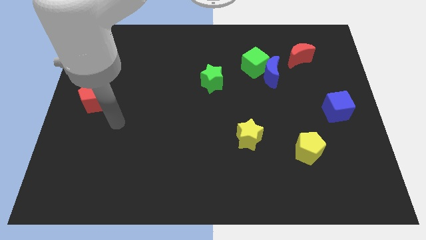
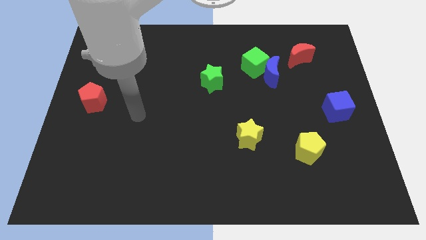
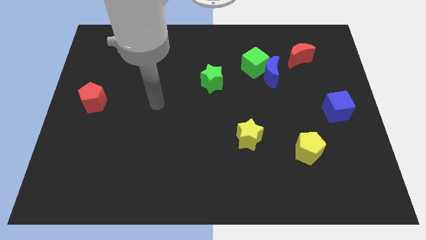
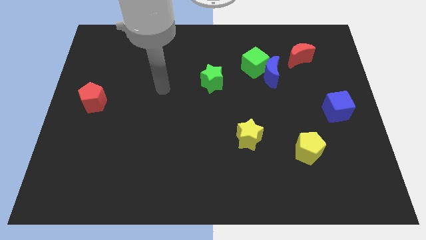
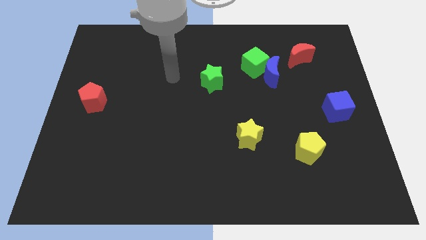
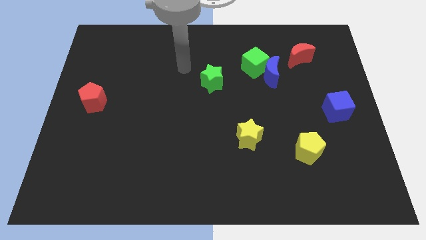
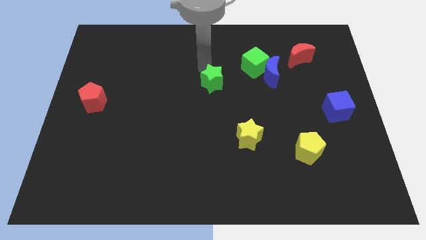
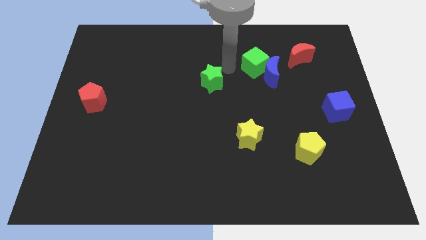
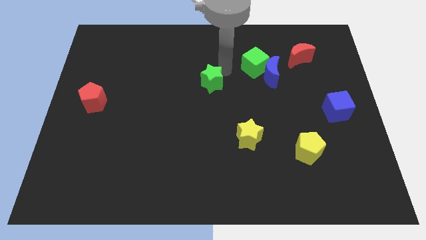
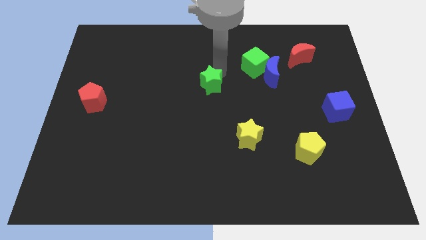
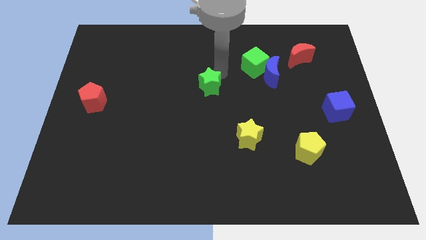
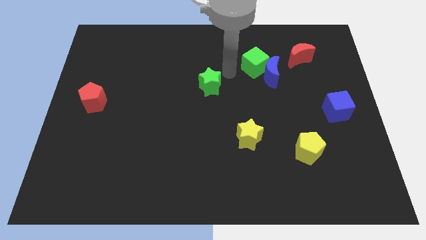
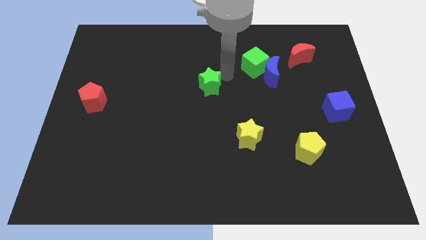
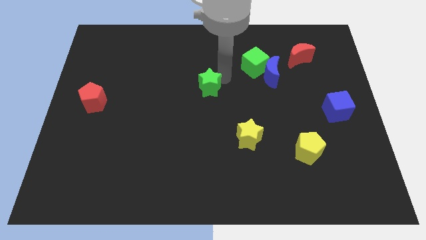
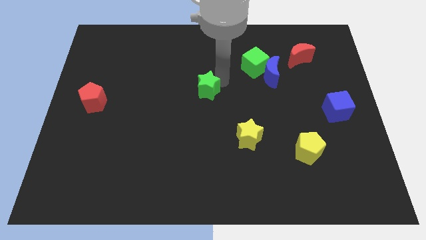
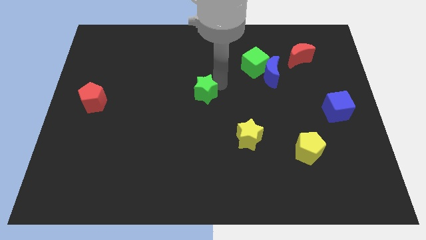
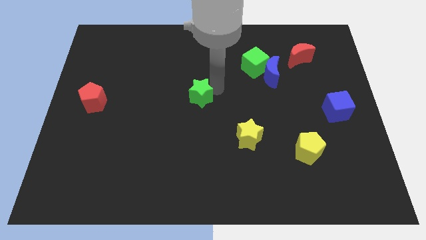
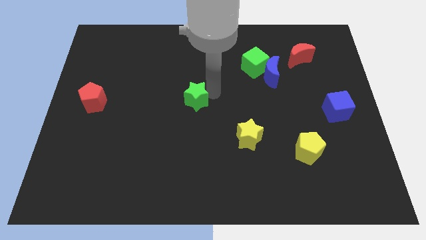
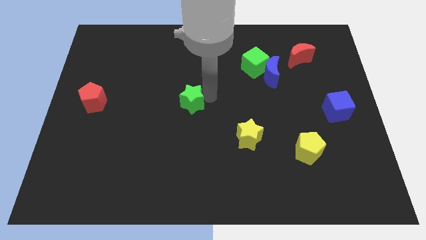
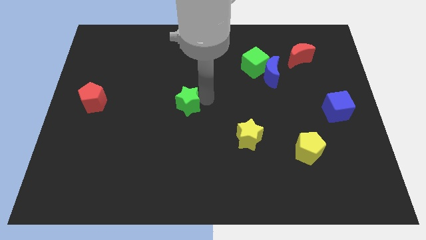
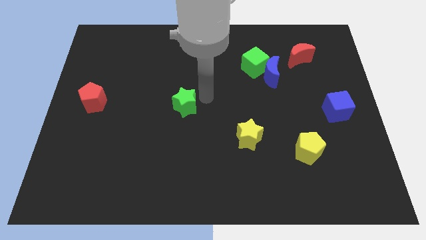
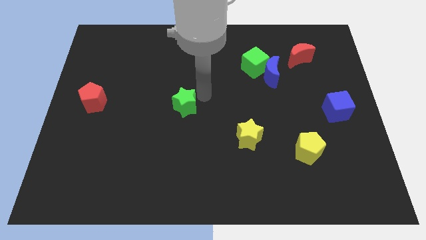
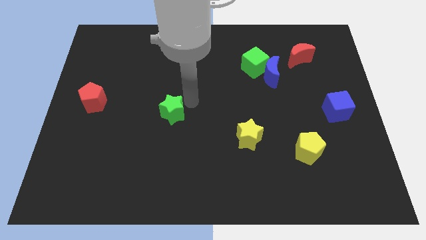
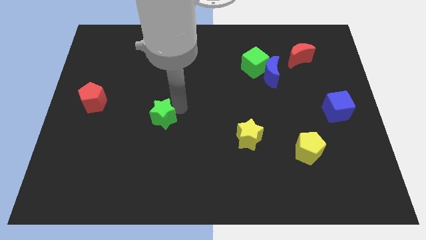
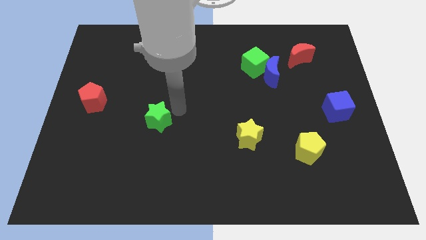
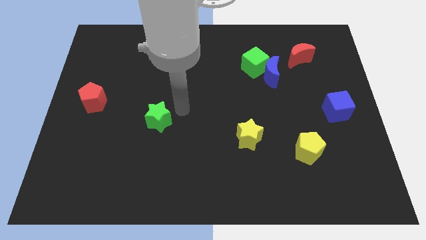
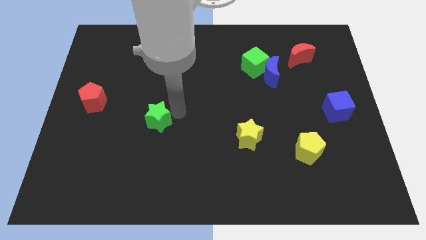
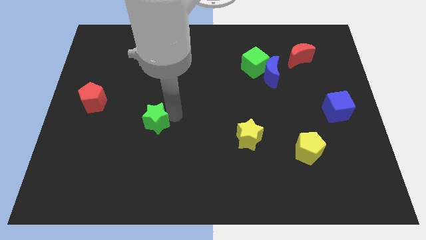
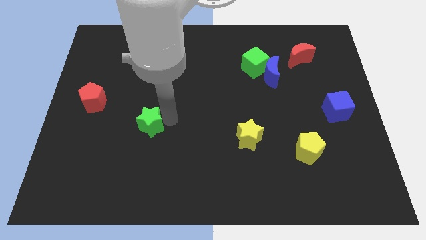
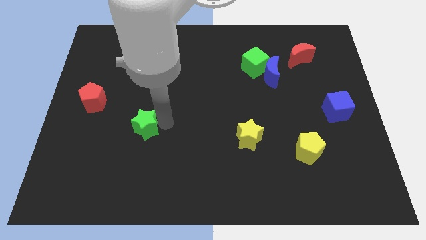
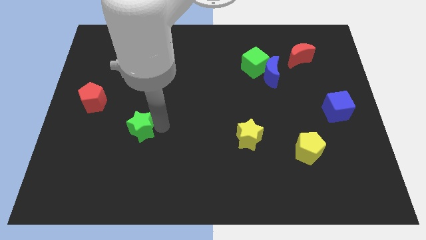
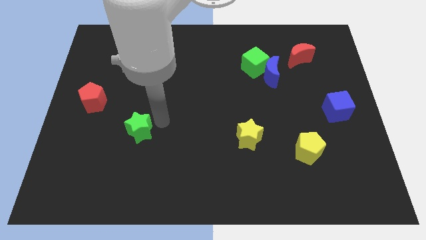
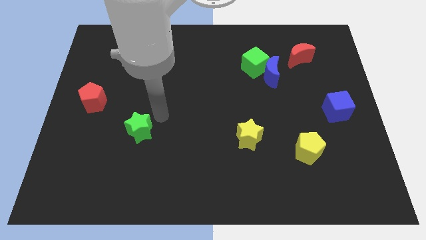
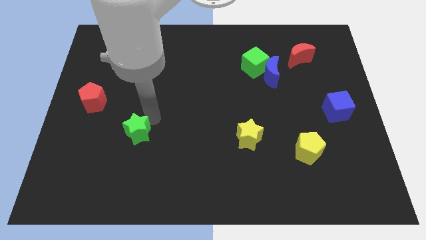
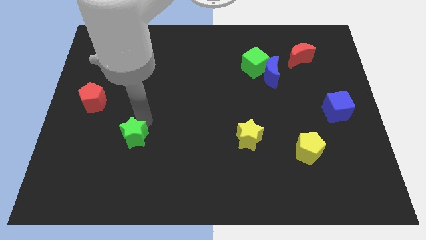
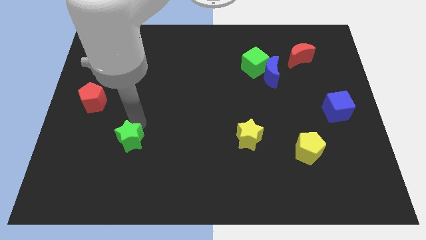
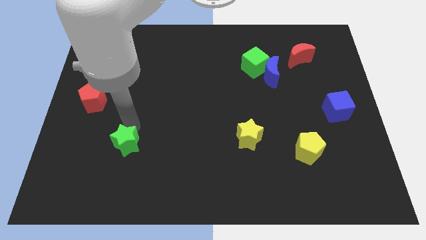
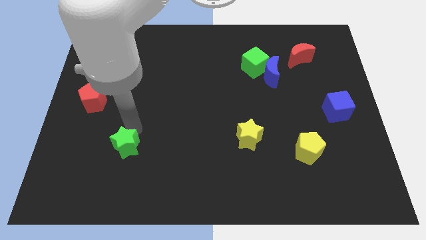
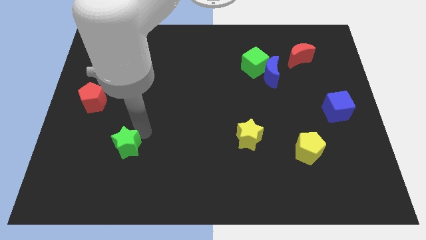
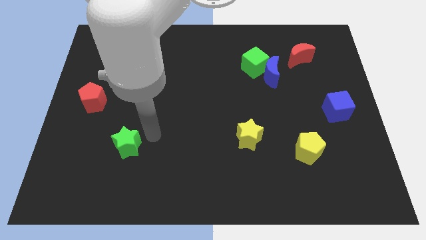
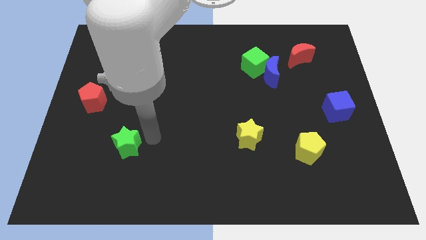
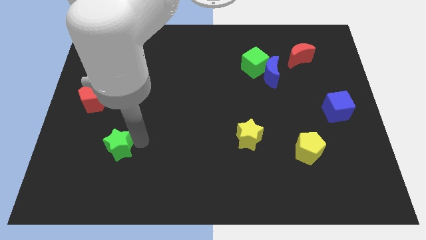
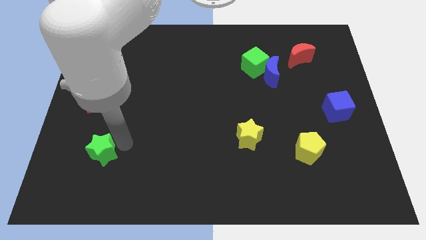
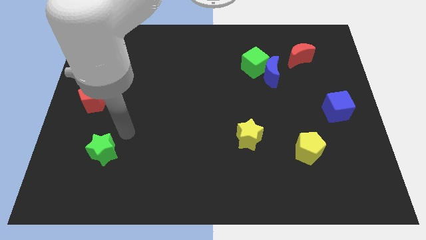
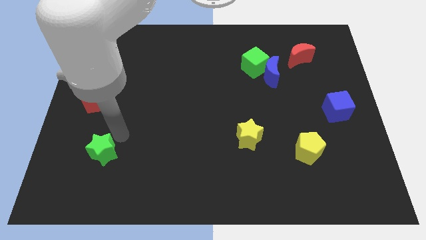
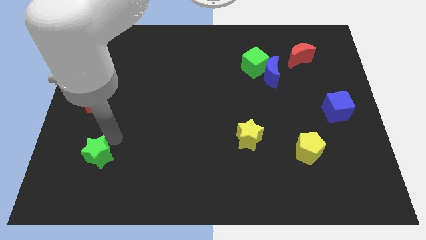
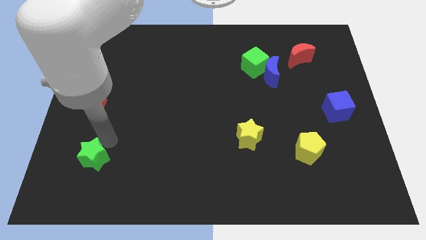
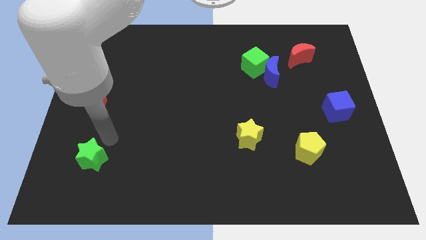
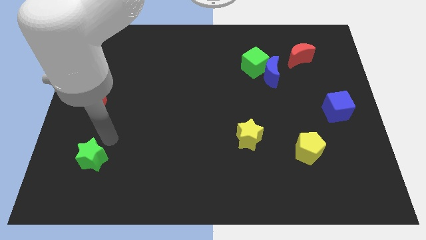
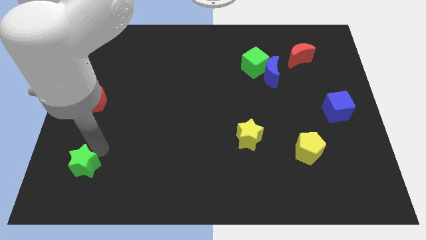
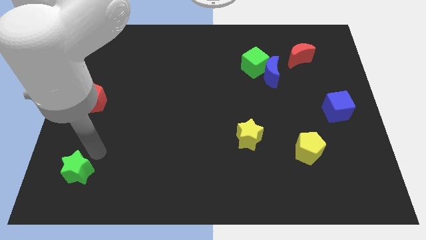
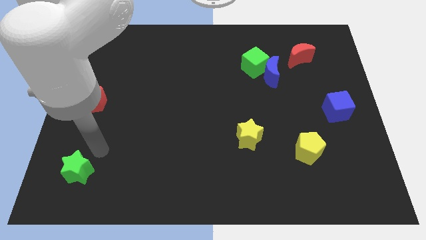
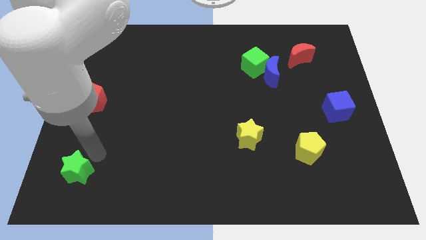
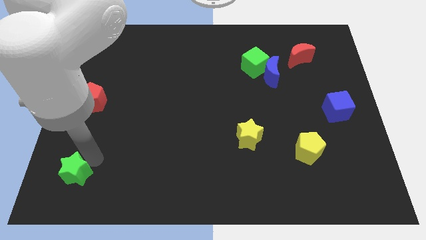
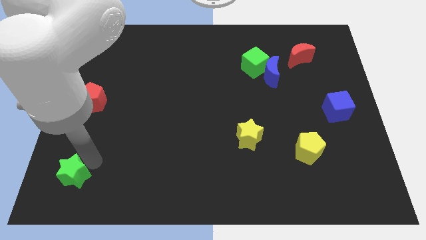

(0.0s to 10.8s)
push the green star to the lower left corner

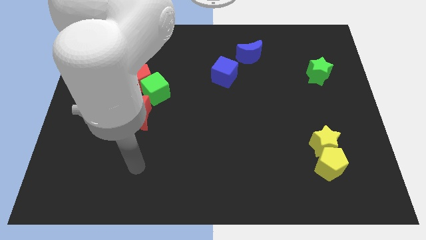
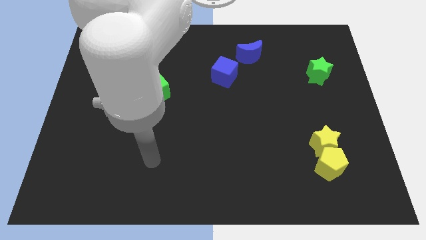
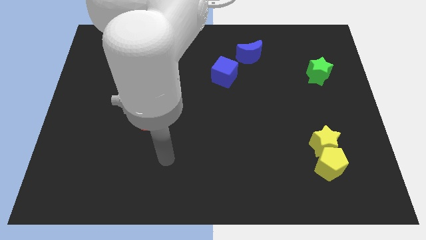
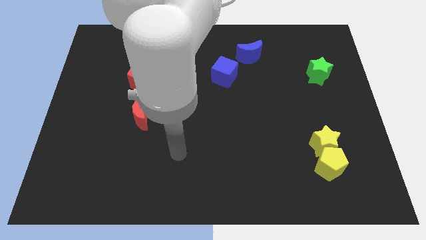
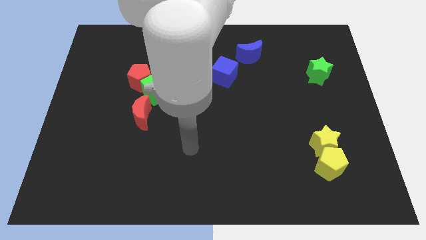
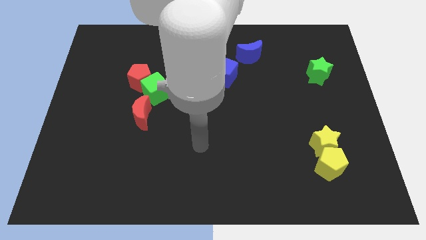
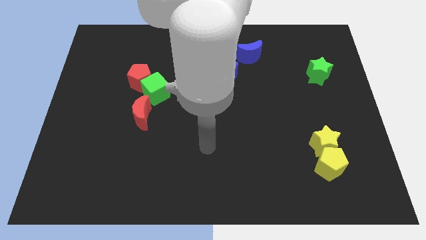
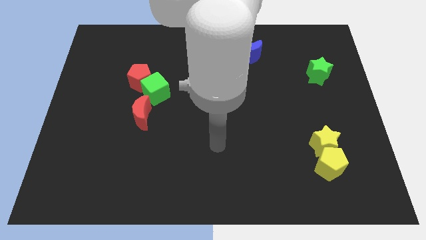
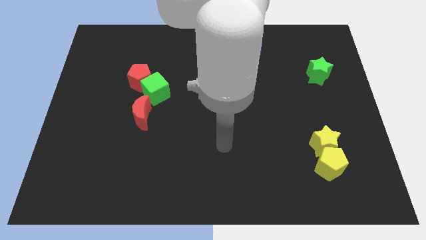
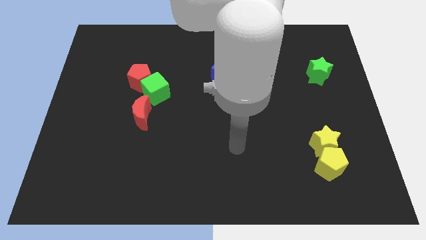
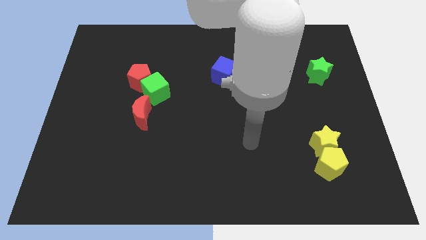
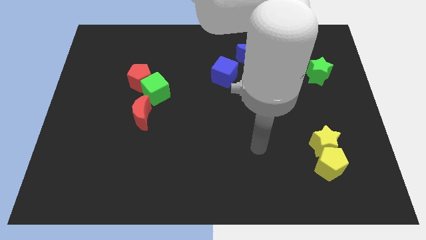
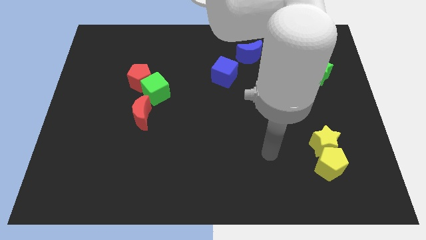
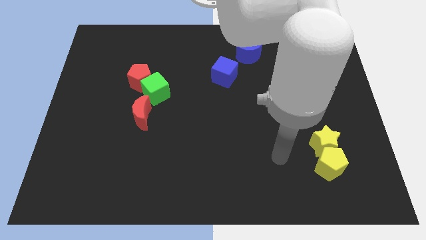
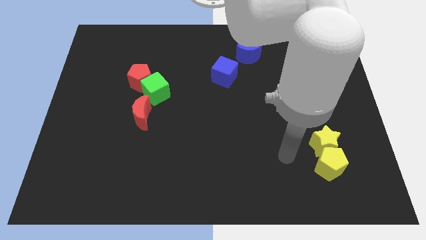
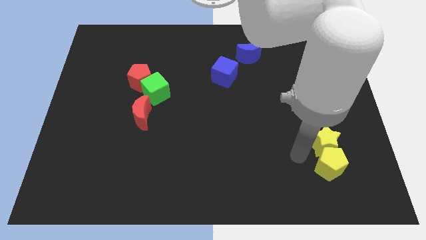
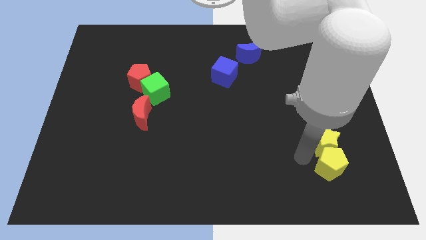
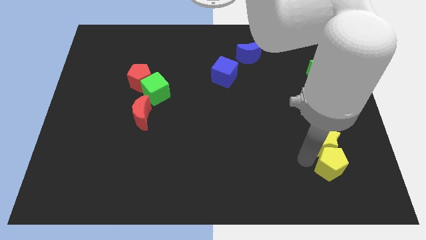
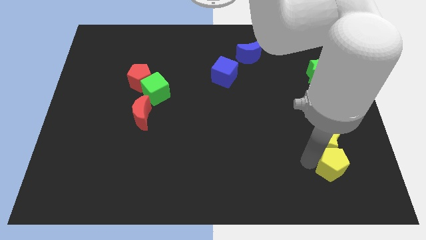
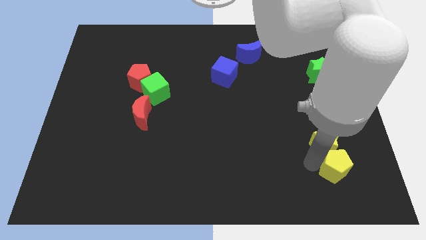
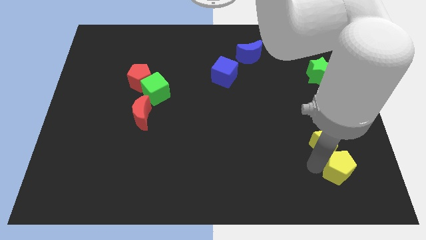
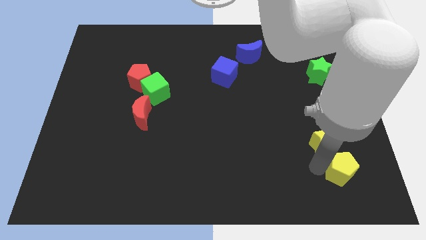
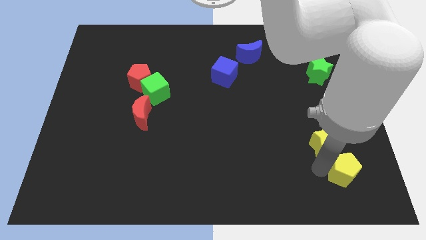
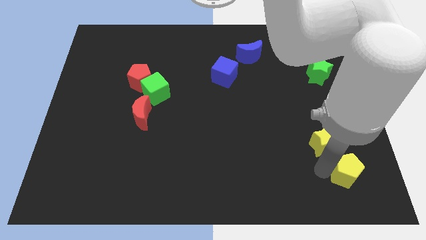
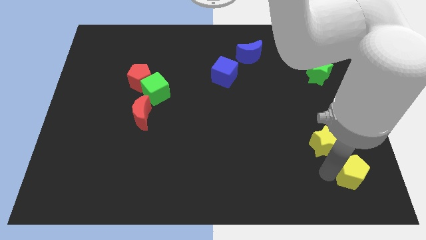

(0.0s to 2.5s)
move the yellow pentagon to the bottom right
